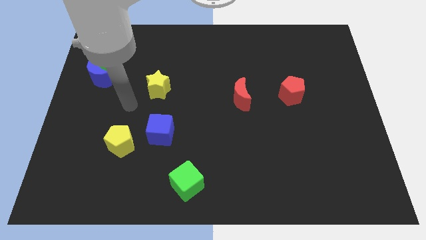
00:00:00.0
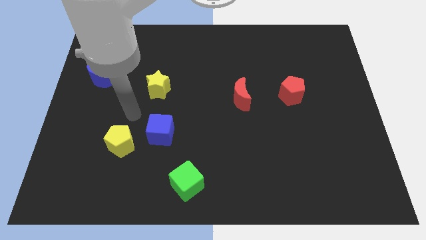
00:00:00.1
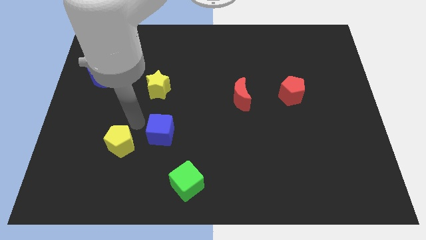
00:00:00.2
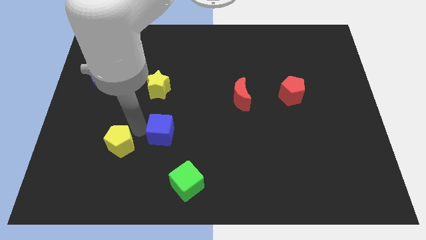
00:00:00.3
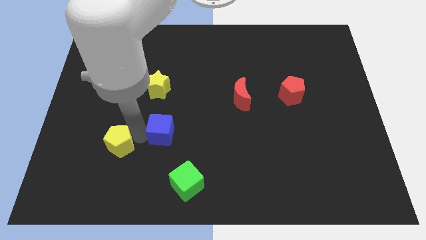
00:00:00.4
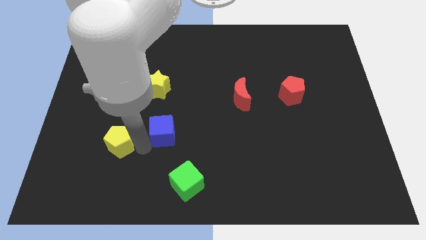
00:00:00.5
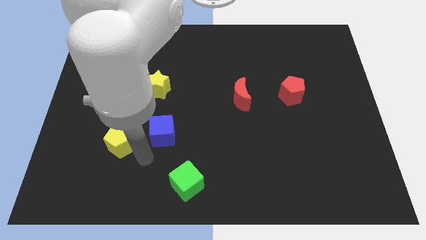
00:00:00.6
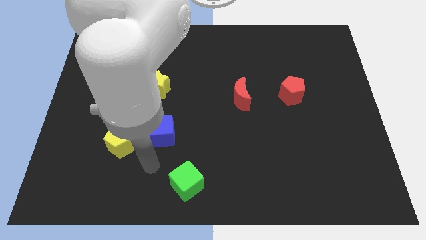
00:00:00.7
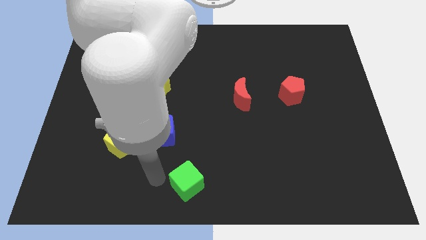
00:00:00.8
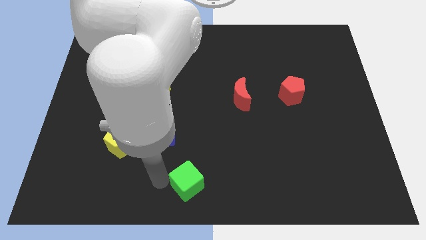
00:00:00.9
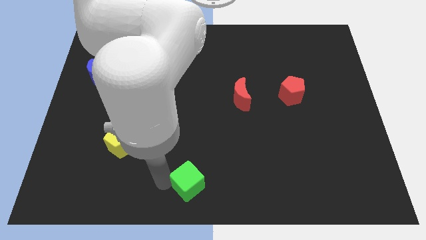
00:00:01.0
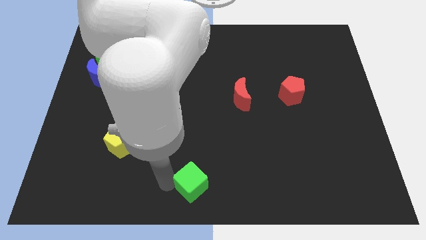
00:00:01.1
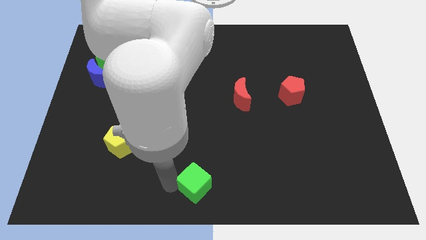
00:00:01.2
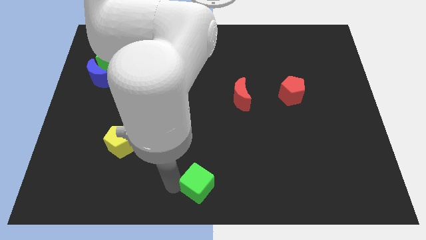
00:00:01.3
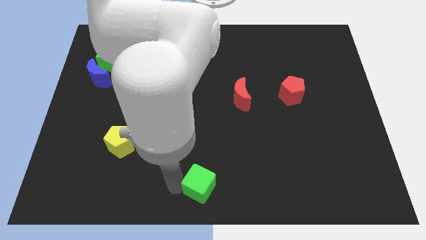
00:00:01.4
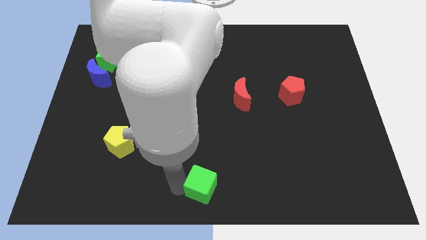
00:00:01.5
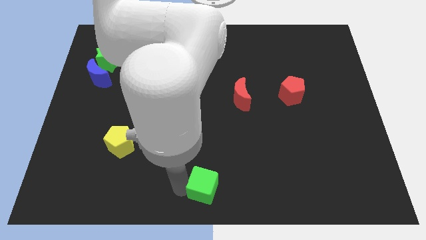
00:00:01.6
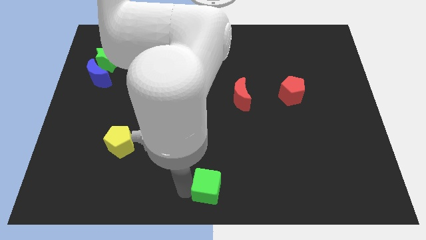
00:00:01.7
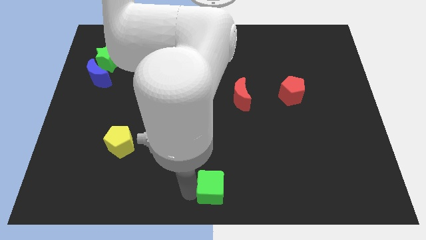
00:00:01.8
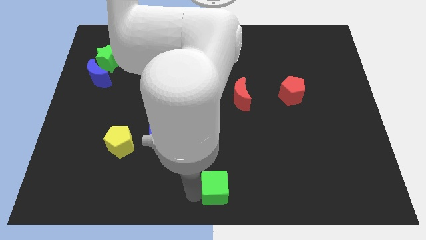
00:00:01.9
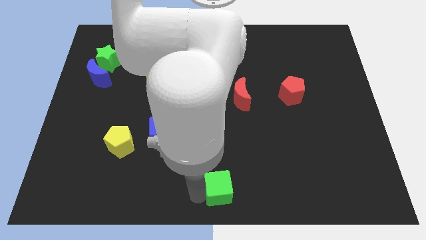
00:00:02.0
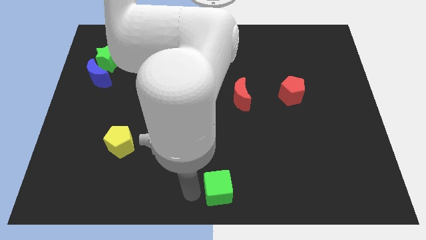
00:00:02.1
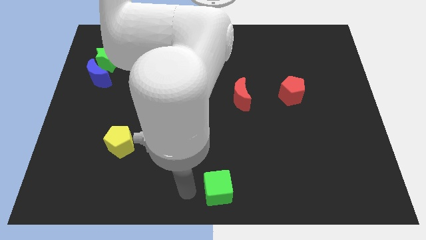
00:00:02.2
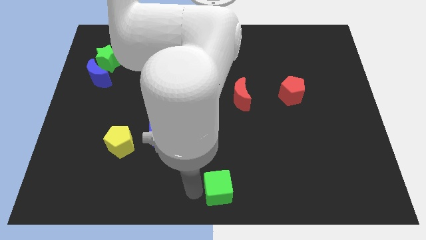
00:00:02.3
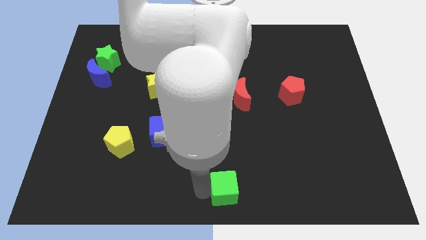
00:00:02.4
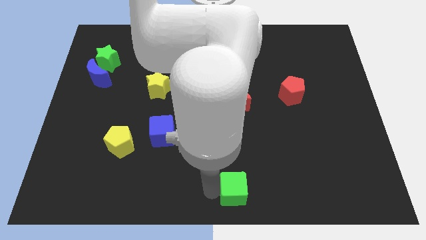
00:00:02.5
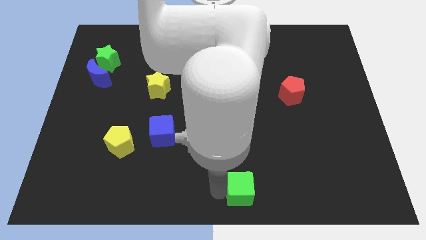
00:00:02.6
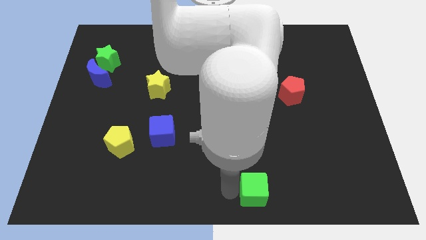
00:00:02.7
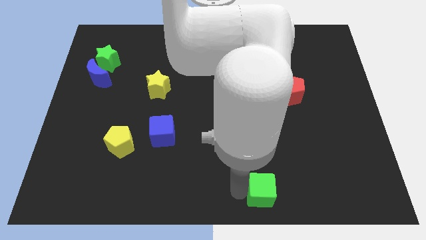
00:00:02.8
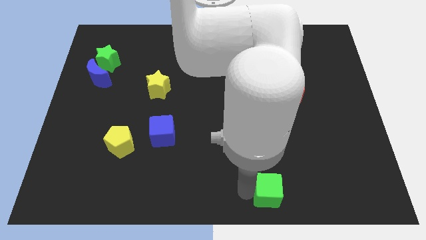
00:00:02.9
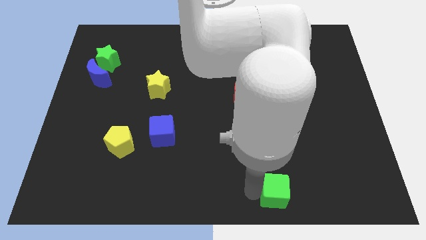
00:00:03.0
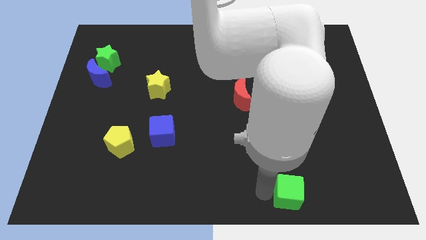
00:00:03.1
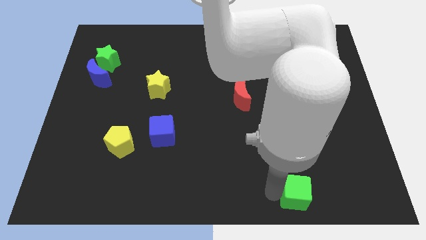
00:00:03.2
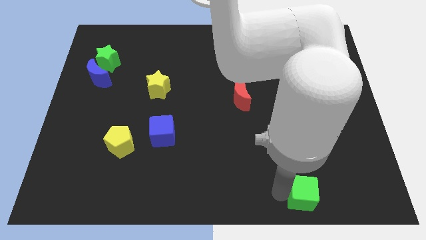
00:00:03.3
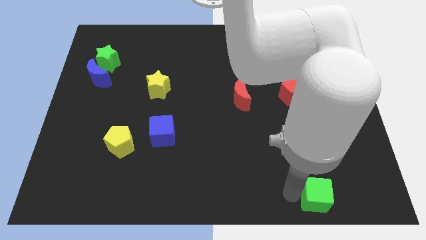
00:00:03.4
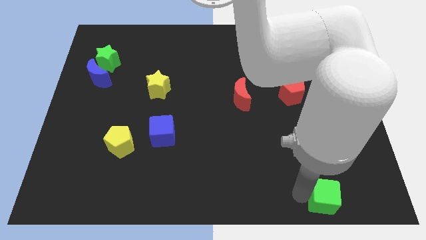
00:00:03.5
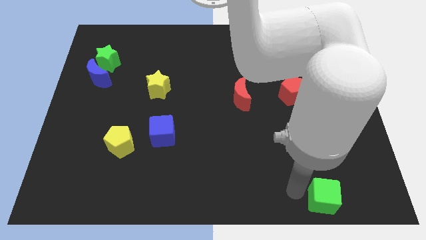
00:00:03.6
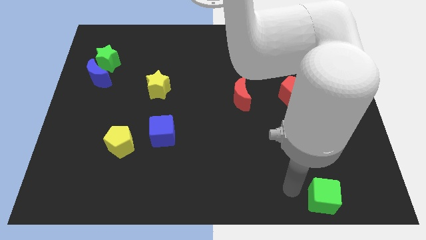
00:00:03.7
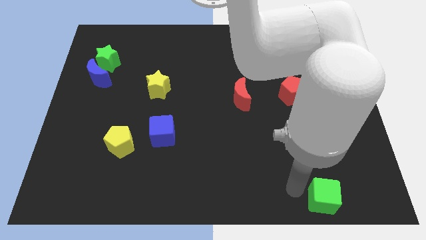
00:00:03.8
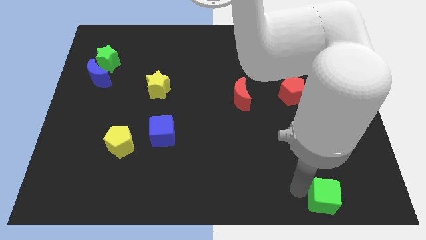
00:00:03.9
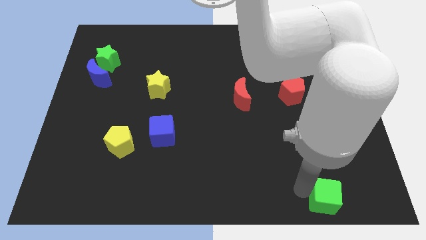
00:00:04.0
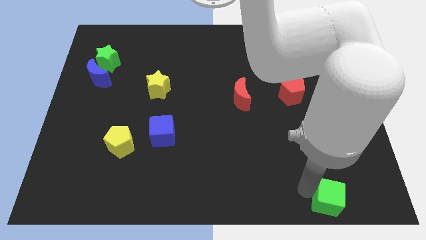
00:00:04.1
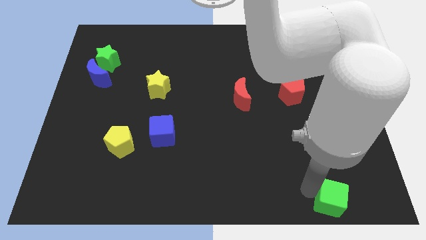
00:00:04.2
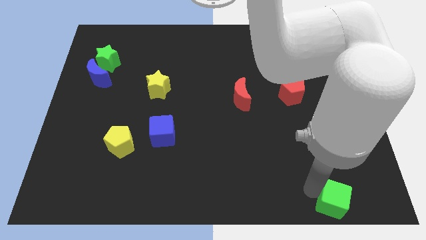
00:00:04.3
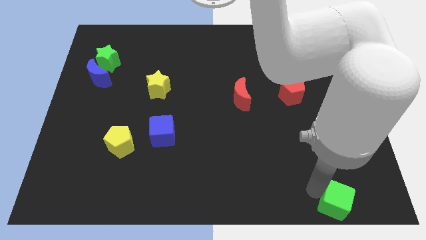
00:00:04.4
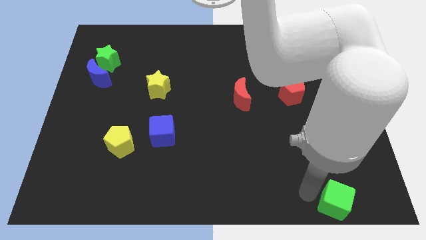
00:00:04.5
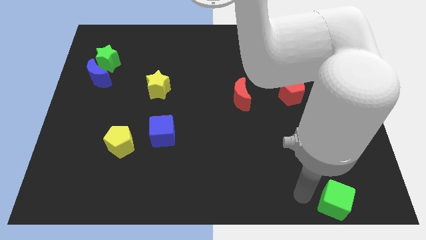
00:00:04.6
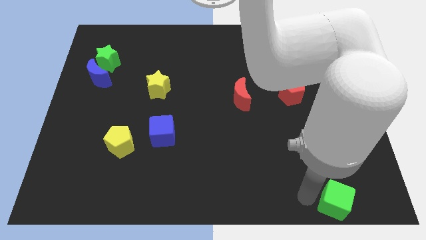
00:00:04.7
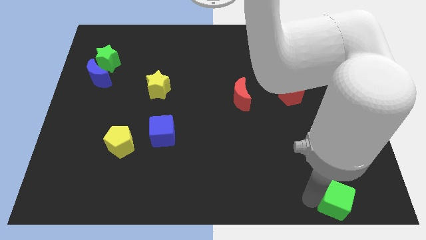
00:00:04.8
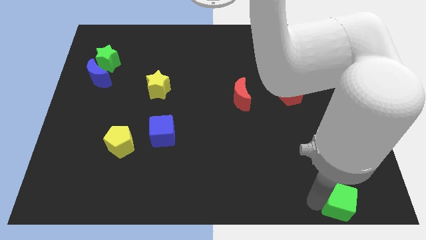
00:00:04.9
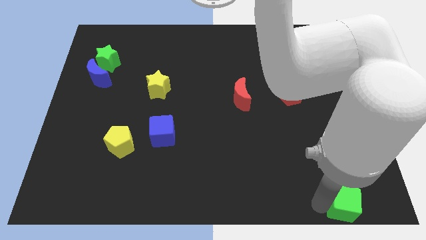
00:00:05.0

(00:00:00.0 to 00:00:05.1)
push the green cube to the lower right corner

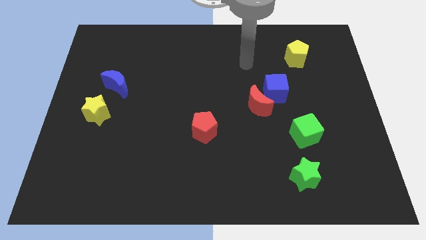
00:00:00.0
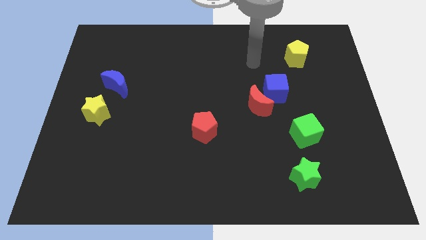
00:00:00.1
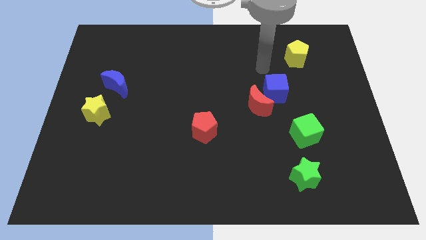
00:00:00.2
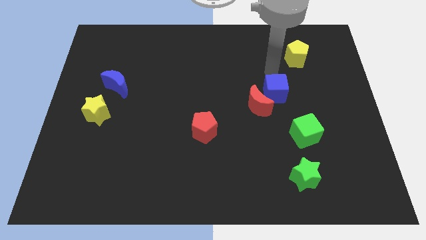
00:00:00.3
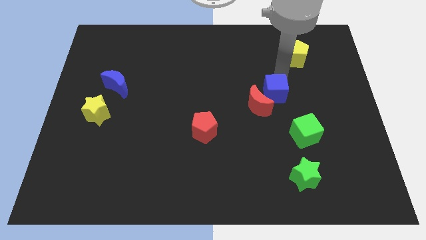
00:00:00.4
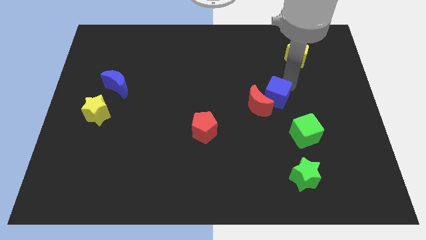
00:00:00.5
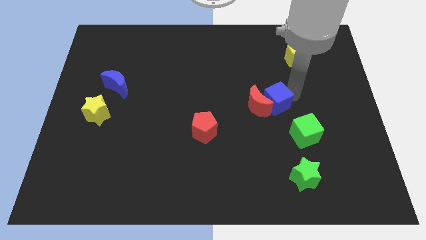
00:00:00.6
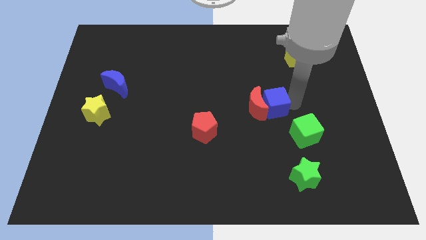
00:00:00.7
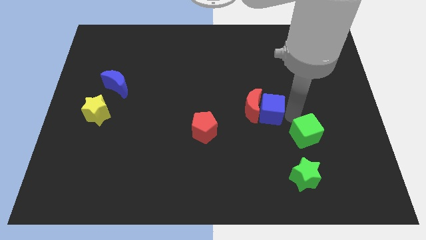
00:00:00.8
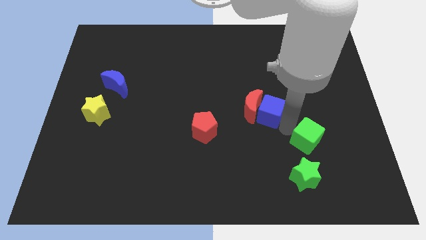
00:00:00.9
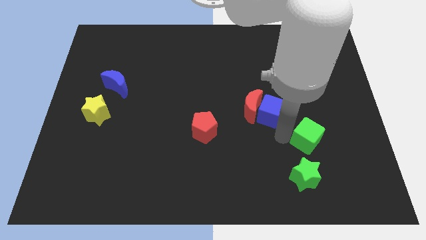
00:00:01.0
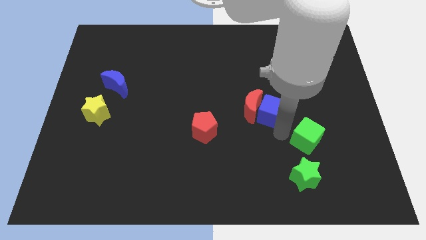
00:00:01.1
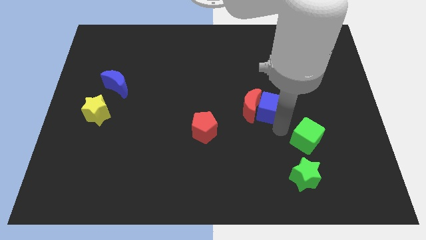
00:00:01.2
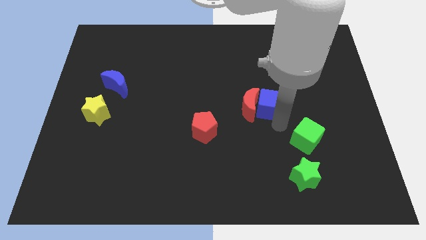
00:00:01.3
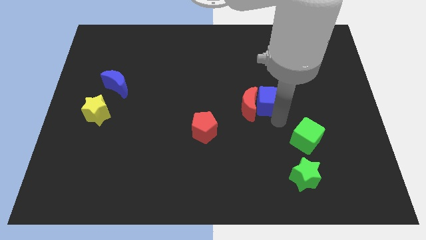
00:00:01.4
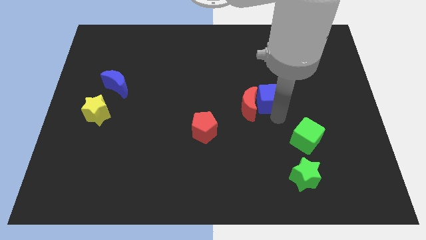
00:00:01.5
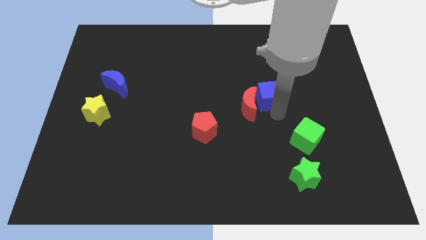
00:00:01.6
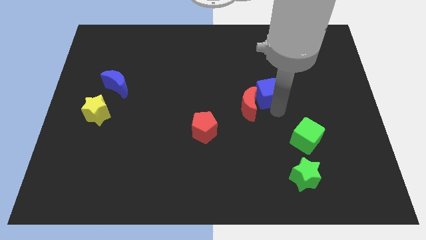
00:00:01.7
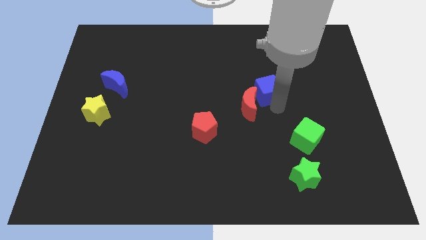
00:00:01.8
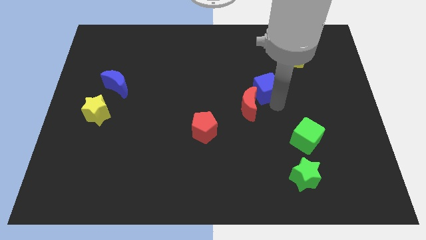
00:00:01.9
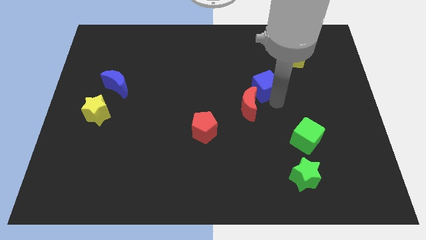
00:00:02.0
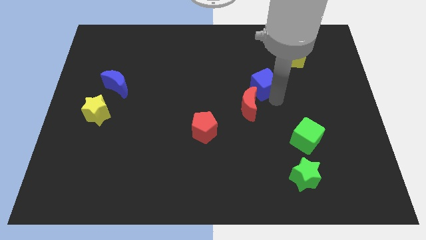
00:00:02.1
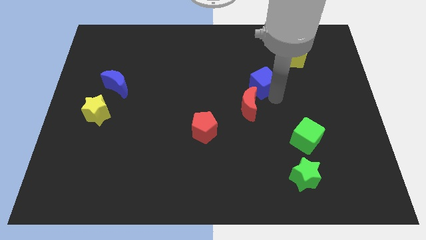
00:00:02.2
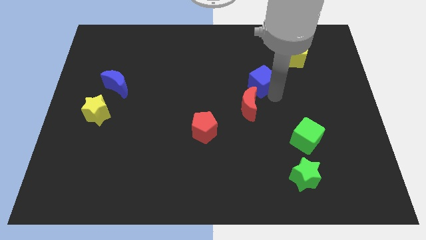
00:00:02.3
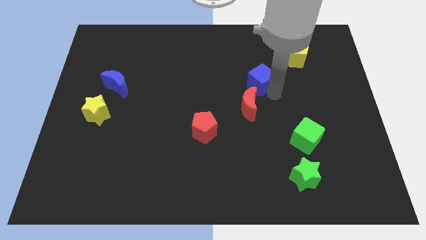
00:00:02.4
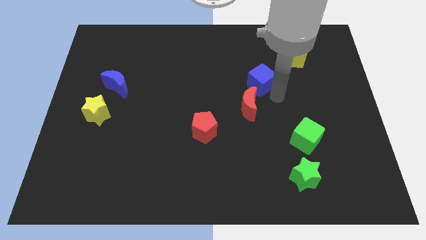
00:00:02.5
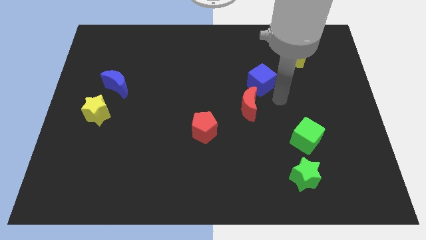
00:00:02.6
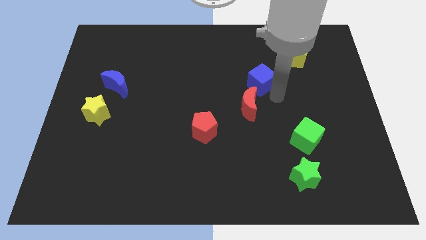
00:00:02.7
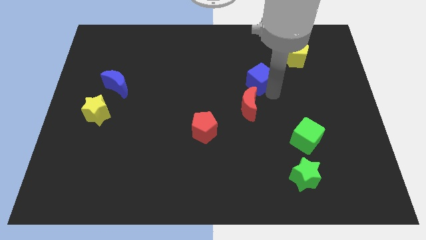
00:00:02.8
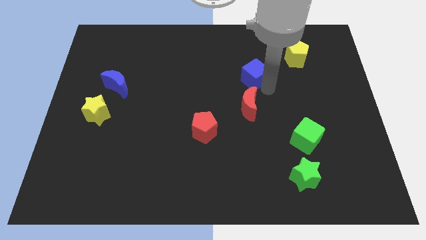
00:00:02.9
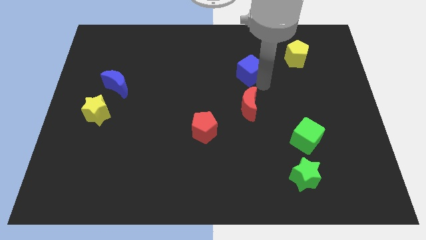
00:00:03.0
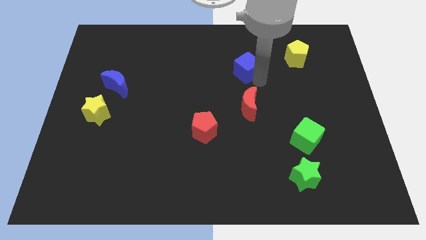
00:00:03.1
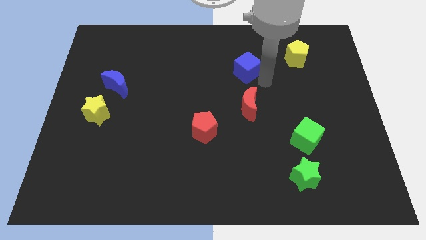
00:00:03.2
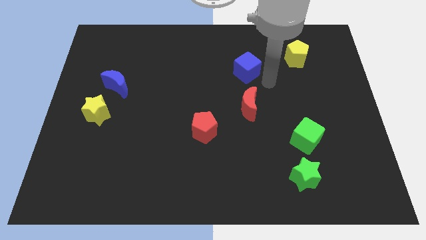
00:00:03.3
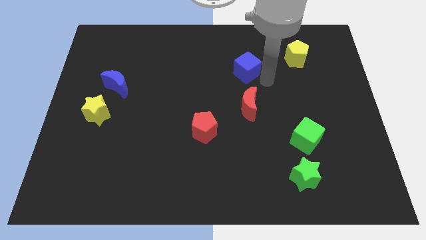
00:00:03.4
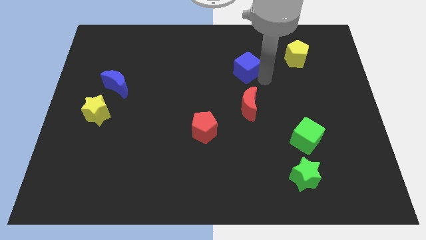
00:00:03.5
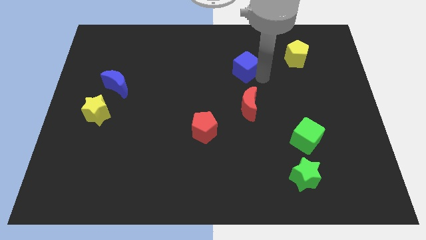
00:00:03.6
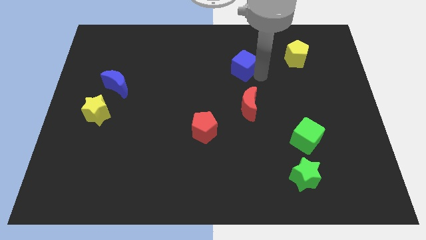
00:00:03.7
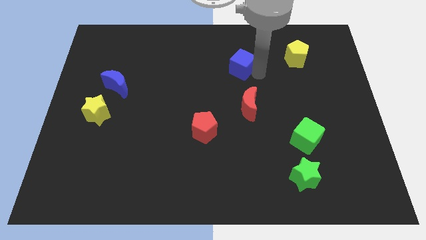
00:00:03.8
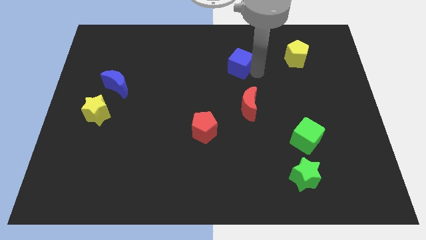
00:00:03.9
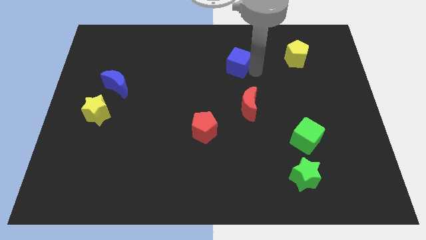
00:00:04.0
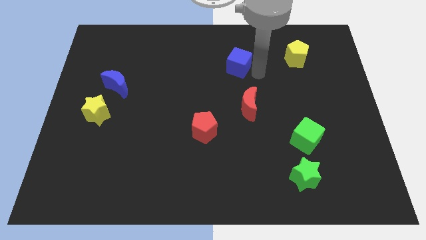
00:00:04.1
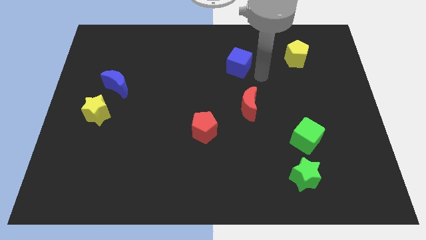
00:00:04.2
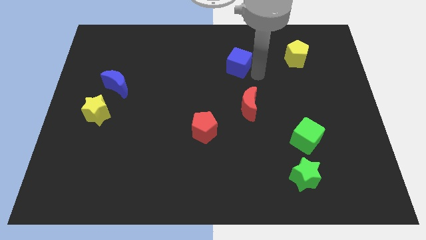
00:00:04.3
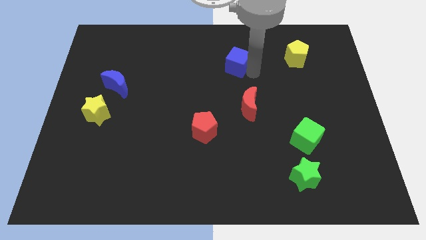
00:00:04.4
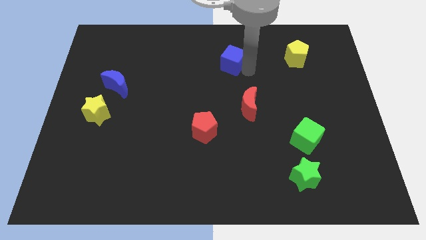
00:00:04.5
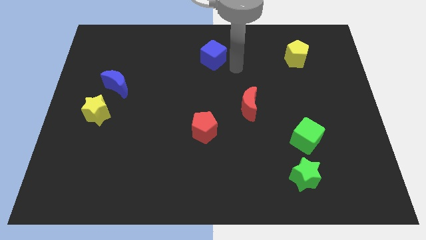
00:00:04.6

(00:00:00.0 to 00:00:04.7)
slide the blue cube to the top
